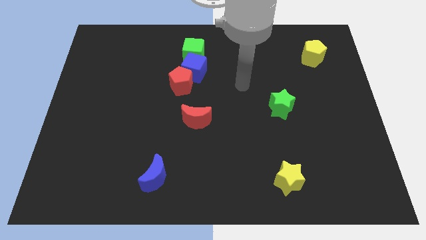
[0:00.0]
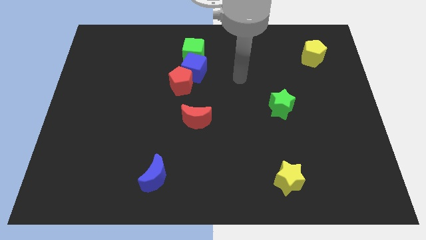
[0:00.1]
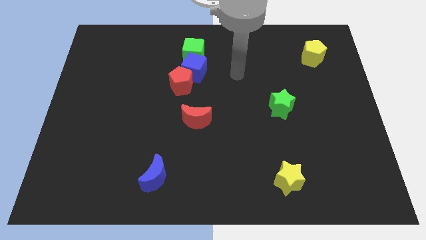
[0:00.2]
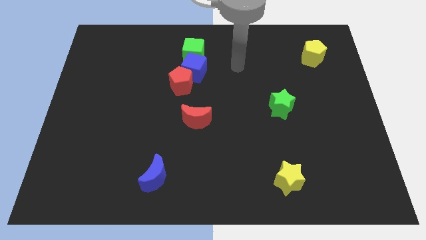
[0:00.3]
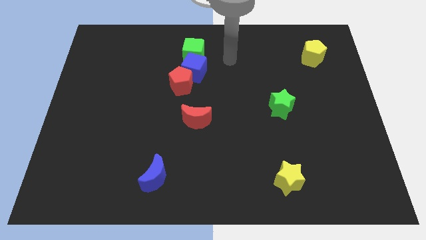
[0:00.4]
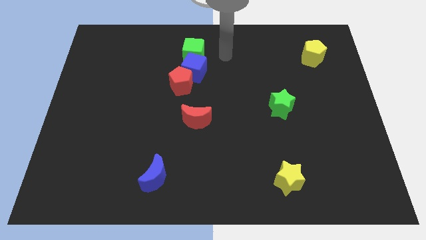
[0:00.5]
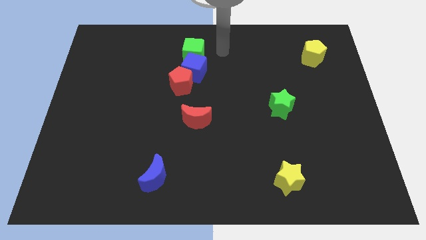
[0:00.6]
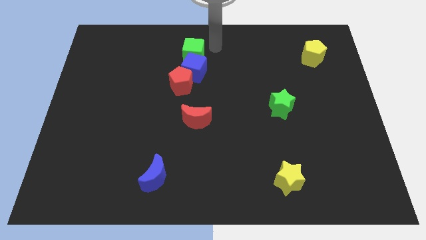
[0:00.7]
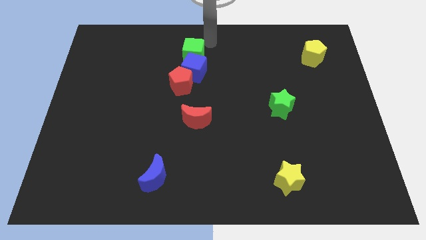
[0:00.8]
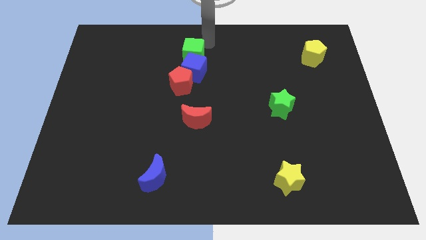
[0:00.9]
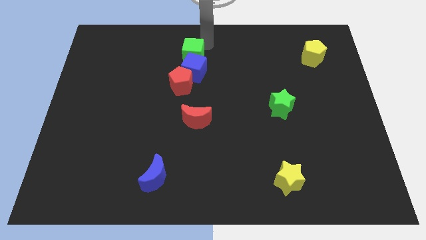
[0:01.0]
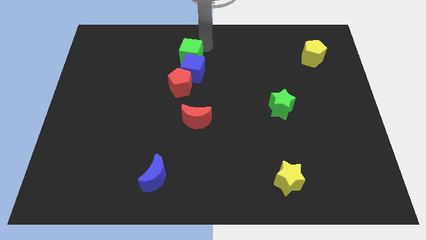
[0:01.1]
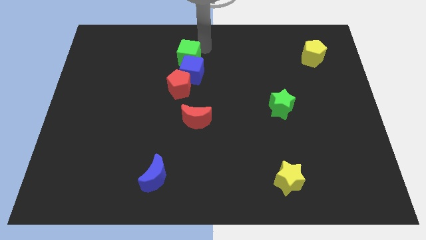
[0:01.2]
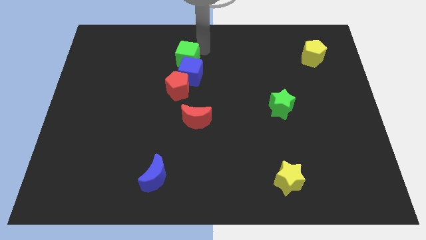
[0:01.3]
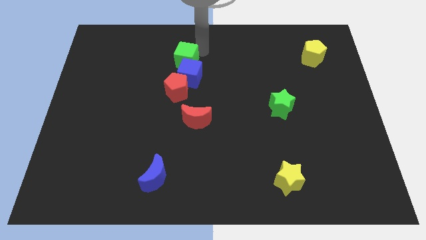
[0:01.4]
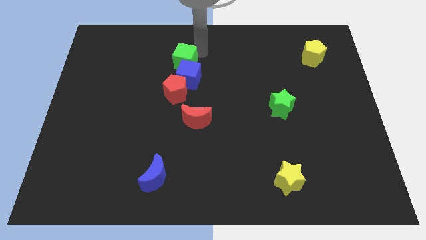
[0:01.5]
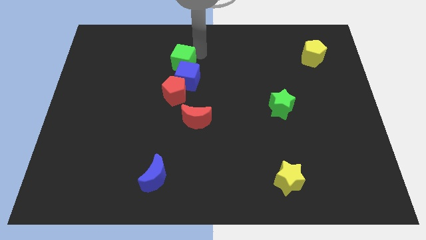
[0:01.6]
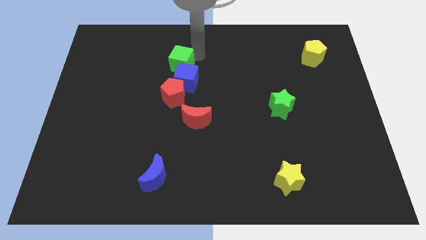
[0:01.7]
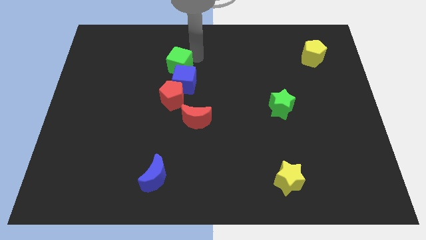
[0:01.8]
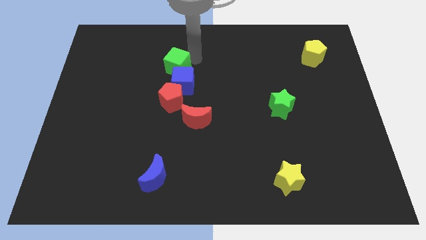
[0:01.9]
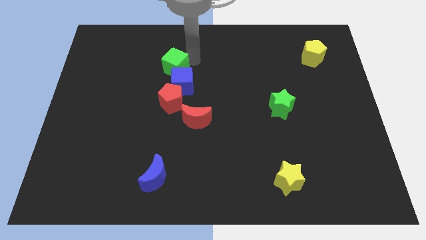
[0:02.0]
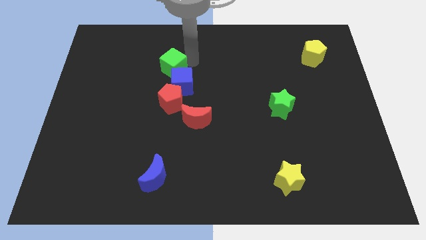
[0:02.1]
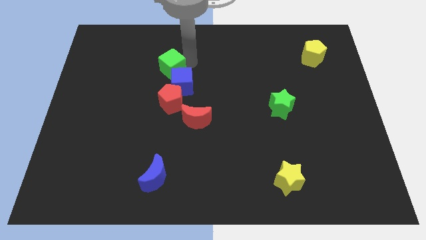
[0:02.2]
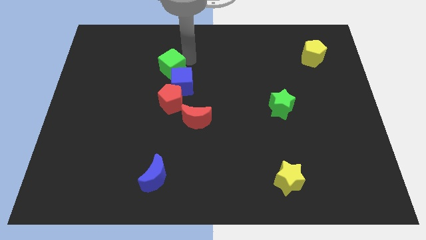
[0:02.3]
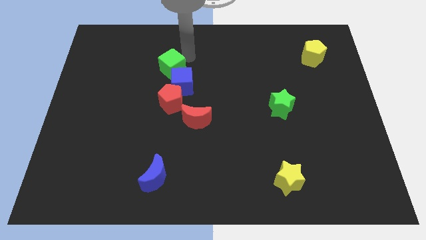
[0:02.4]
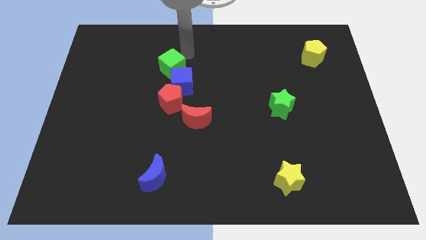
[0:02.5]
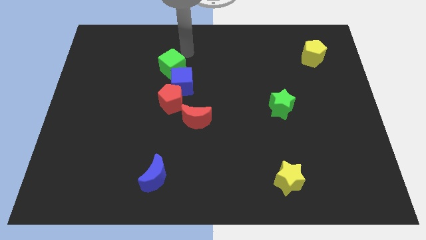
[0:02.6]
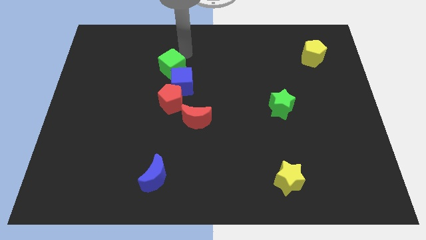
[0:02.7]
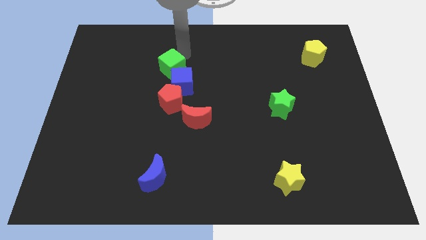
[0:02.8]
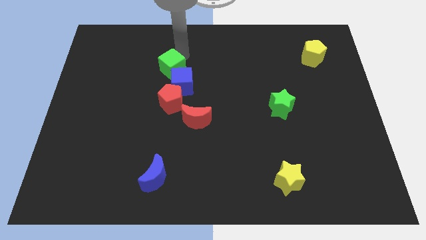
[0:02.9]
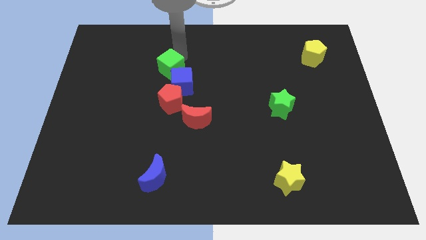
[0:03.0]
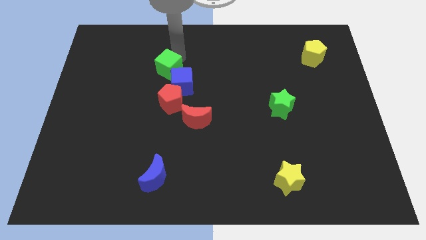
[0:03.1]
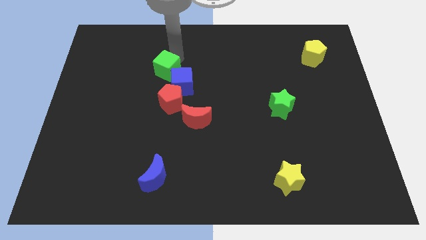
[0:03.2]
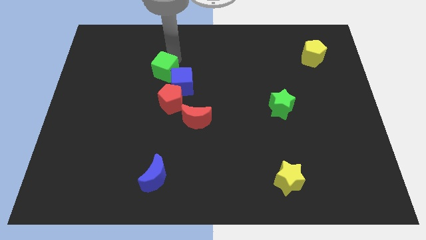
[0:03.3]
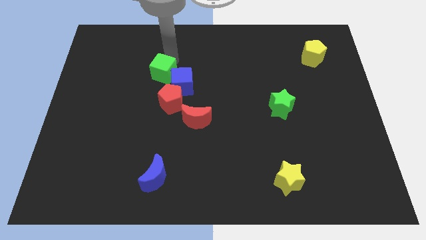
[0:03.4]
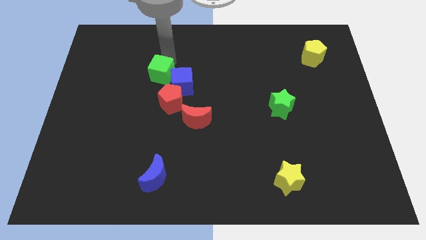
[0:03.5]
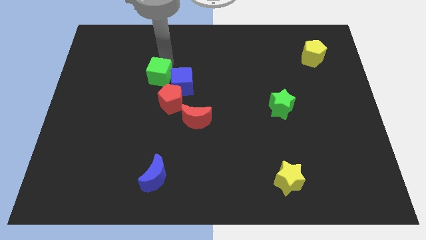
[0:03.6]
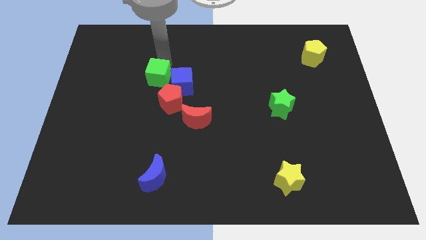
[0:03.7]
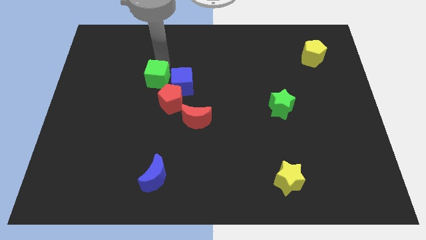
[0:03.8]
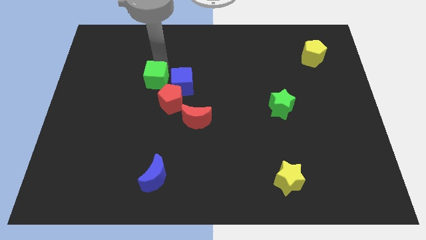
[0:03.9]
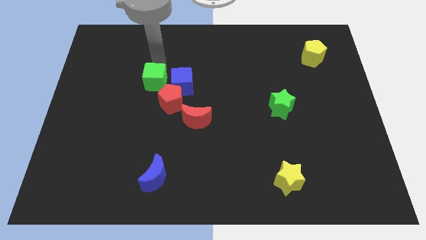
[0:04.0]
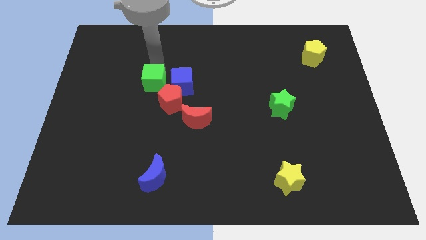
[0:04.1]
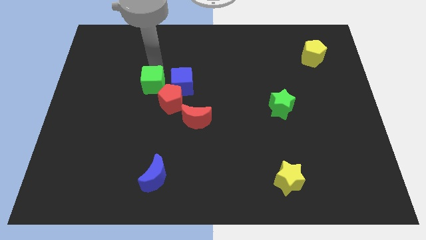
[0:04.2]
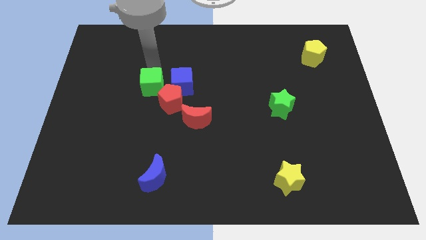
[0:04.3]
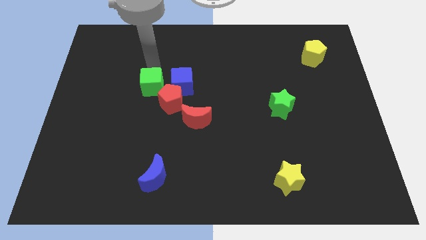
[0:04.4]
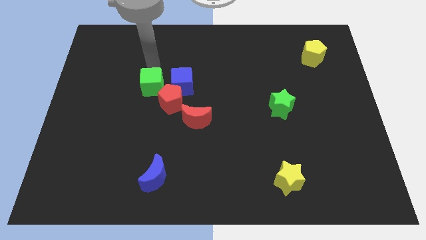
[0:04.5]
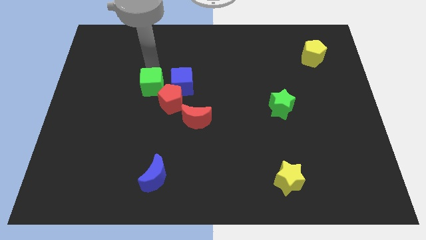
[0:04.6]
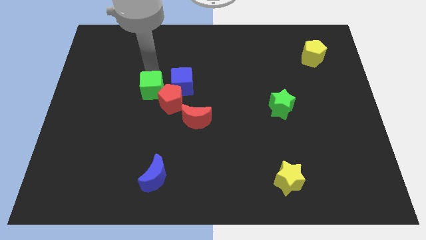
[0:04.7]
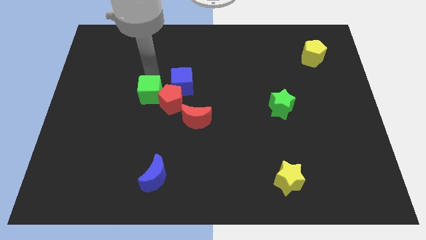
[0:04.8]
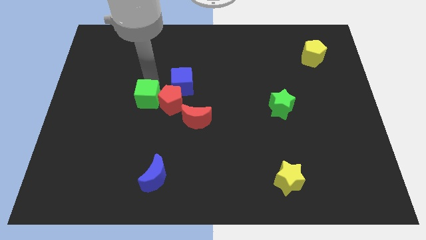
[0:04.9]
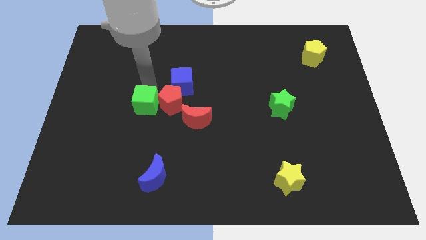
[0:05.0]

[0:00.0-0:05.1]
put the green cube left of the red moon

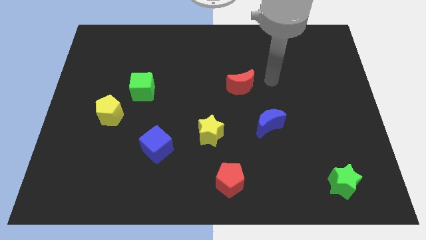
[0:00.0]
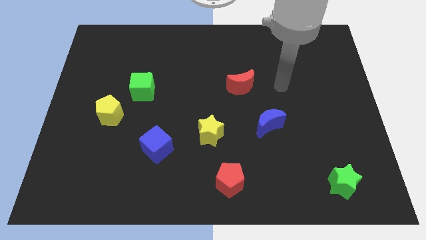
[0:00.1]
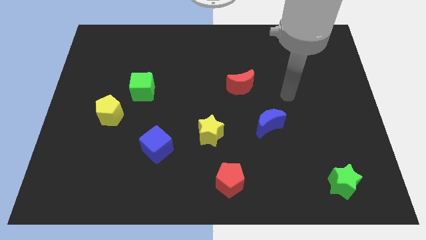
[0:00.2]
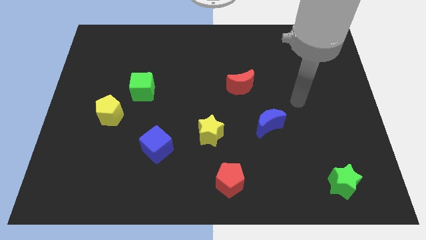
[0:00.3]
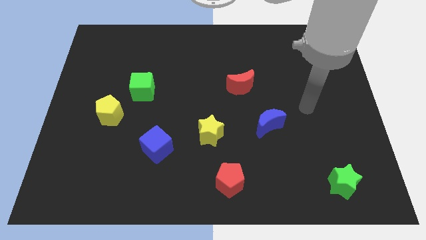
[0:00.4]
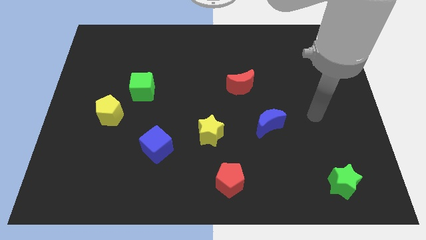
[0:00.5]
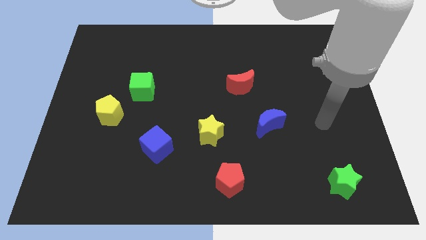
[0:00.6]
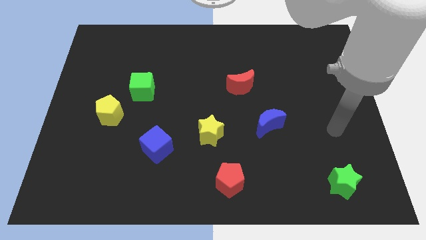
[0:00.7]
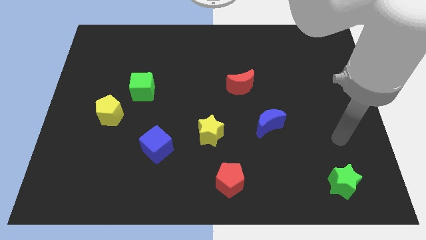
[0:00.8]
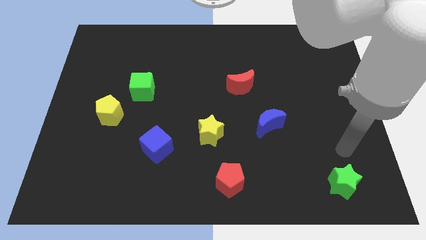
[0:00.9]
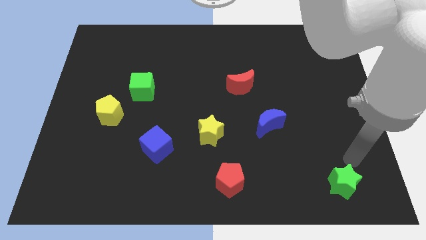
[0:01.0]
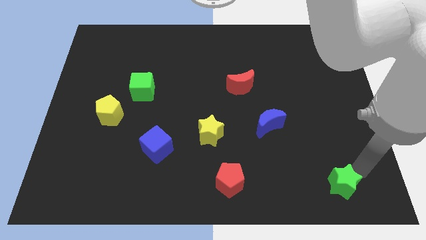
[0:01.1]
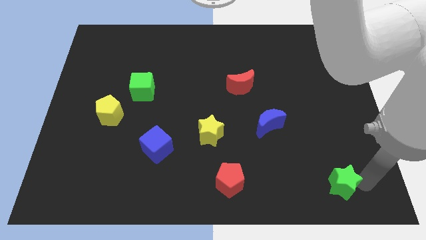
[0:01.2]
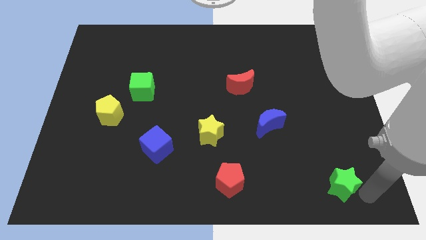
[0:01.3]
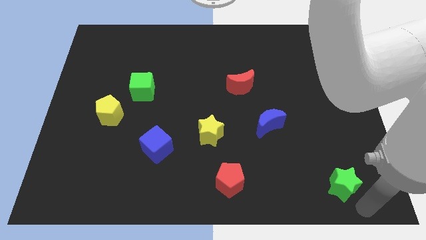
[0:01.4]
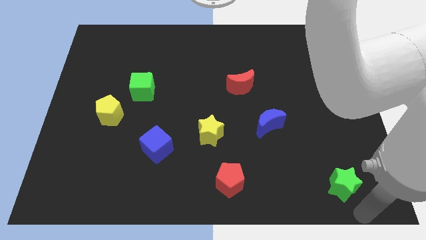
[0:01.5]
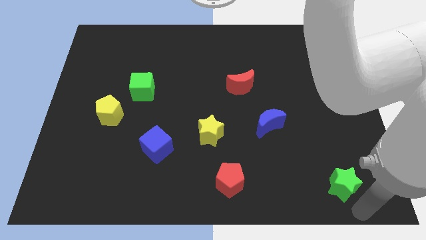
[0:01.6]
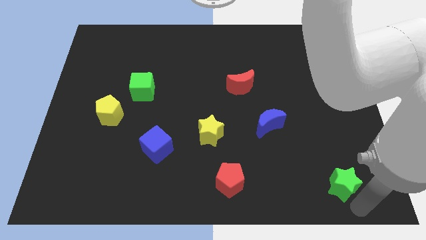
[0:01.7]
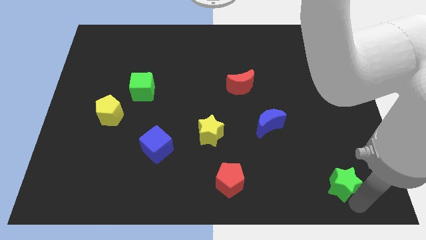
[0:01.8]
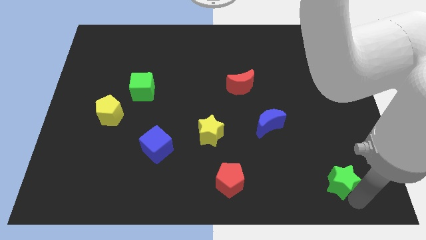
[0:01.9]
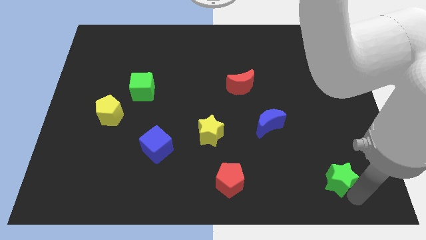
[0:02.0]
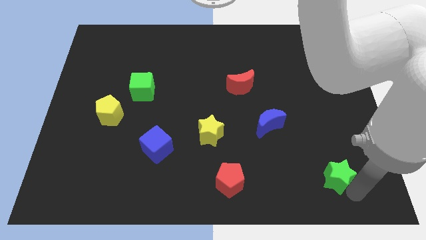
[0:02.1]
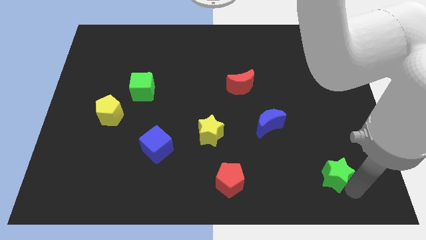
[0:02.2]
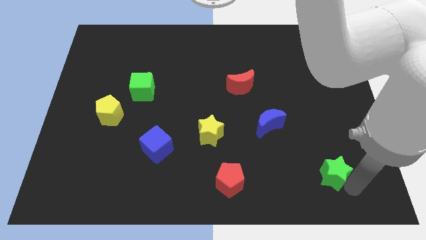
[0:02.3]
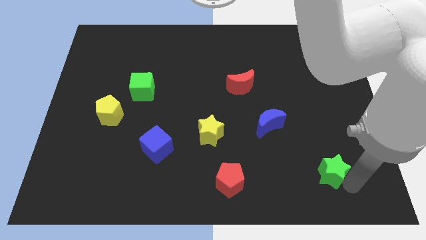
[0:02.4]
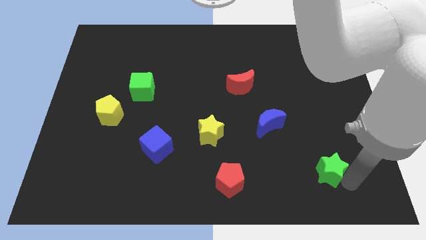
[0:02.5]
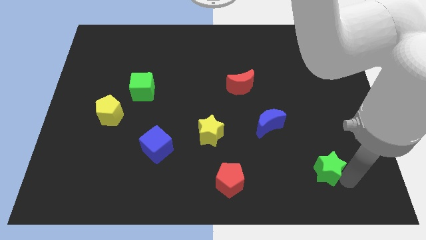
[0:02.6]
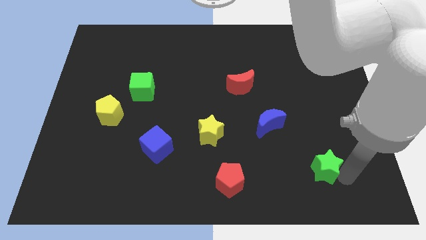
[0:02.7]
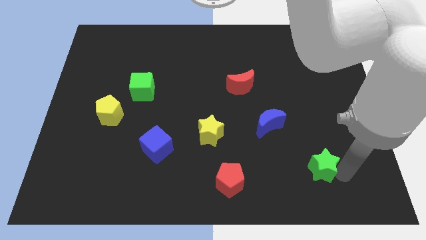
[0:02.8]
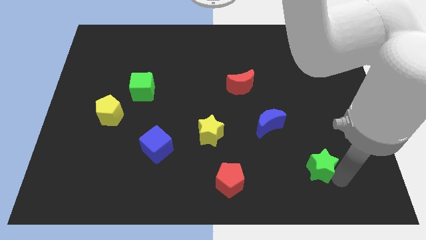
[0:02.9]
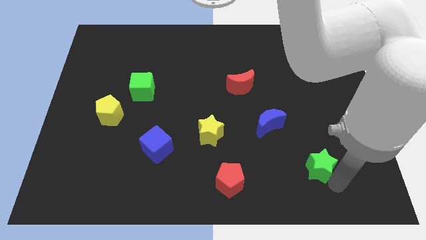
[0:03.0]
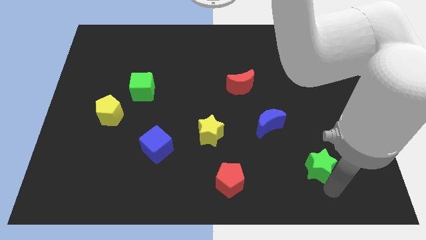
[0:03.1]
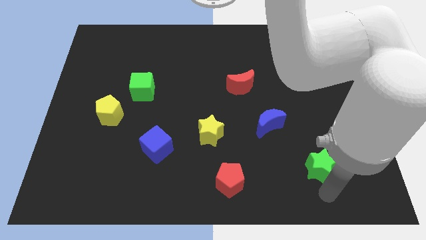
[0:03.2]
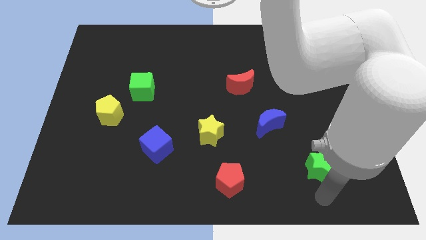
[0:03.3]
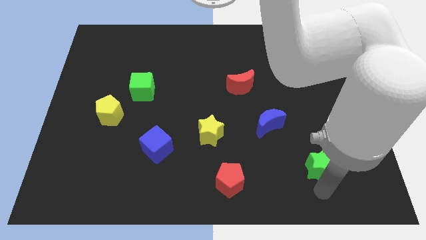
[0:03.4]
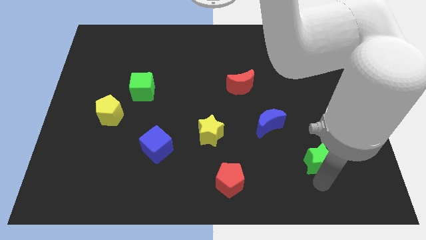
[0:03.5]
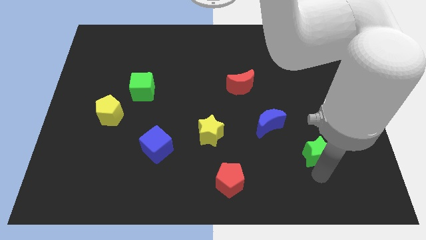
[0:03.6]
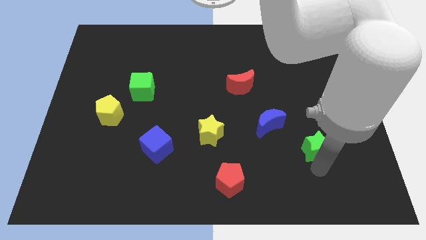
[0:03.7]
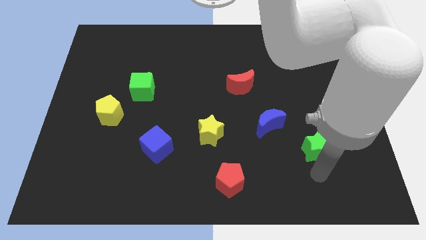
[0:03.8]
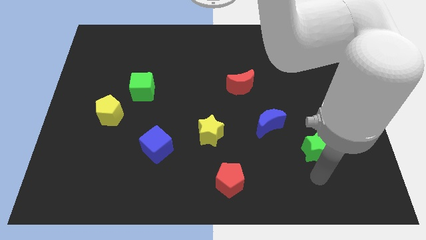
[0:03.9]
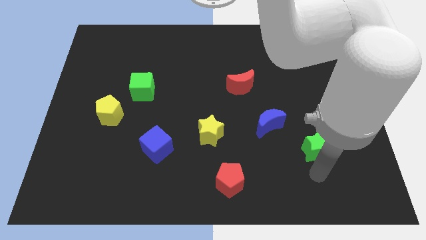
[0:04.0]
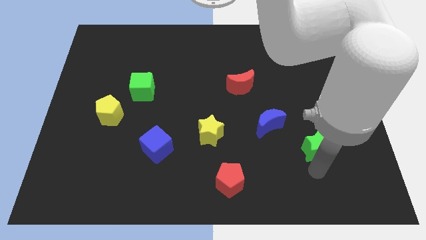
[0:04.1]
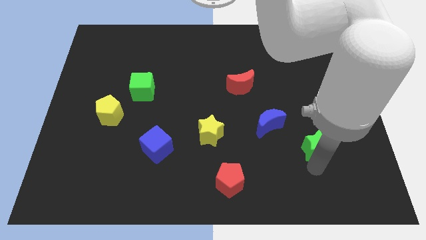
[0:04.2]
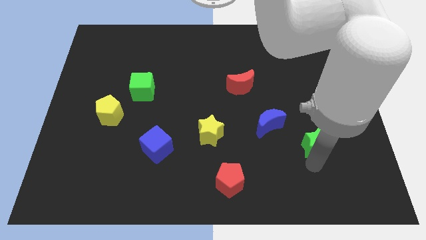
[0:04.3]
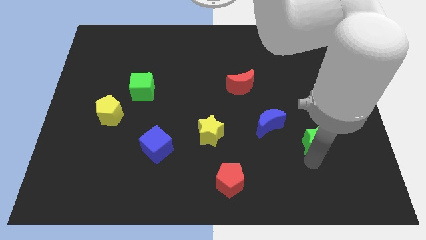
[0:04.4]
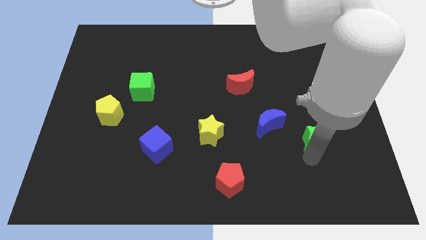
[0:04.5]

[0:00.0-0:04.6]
slide the green star right of the blue moon
